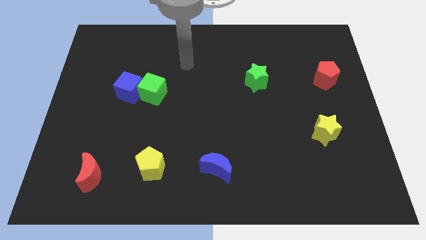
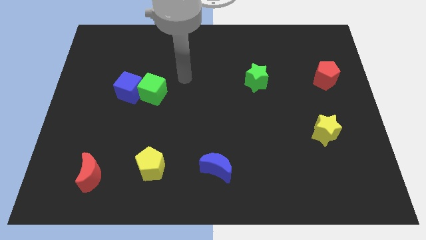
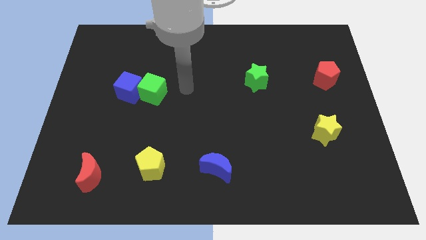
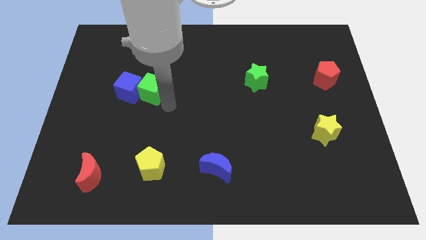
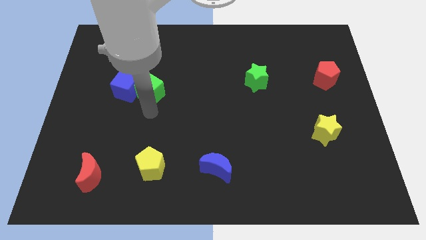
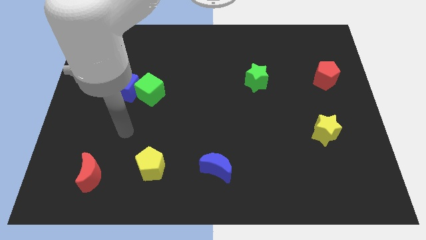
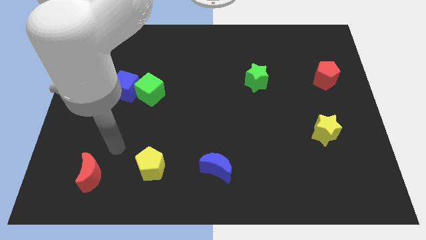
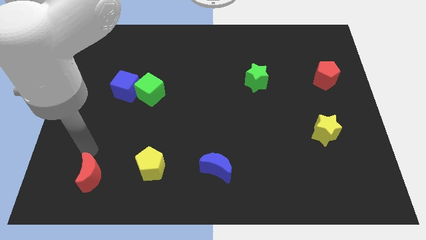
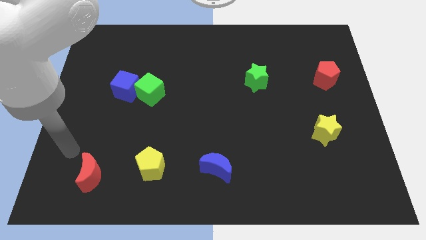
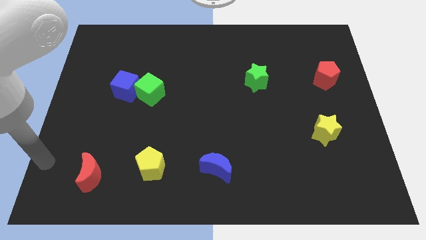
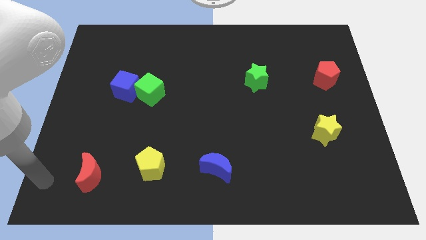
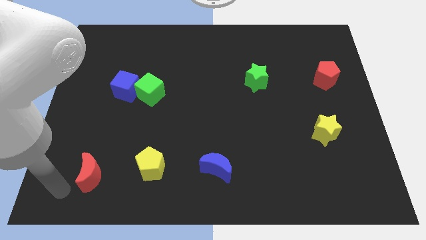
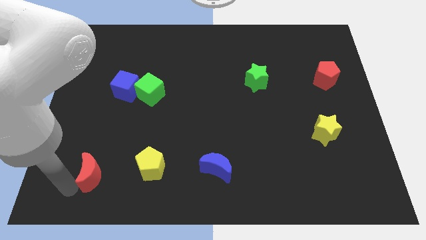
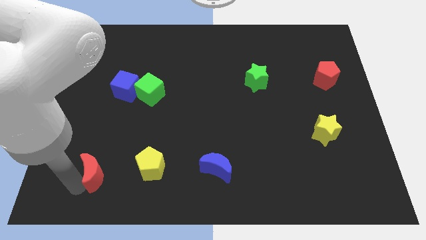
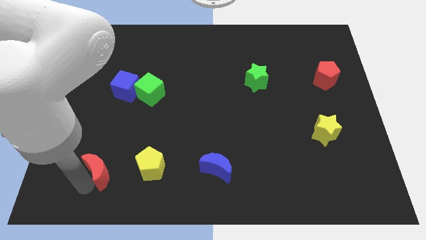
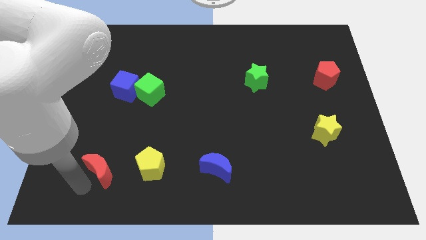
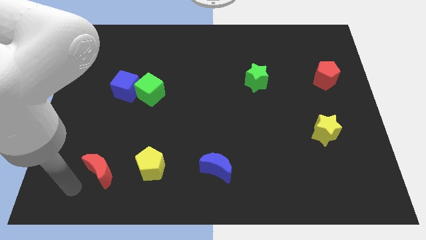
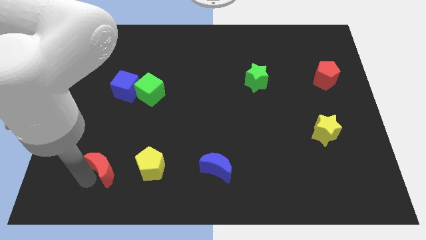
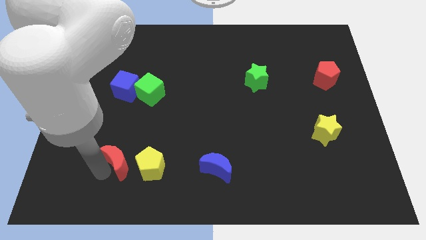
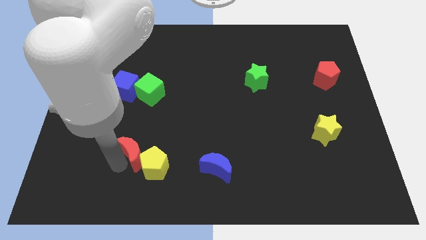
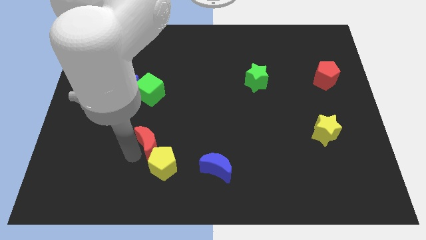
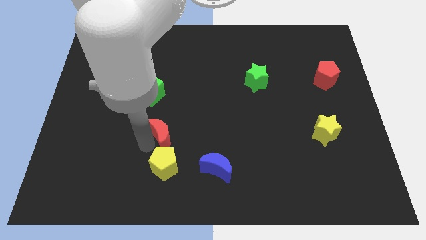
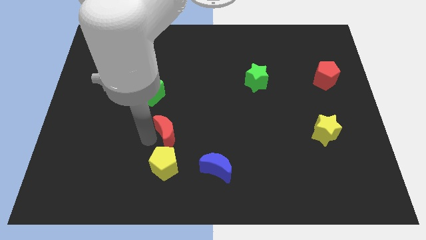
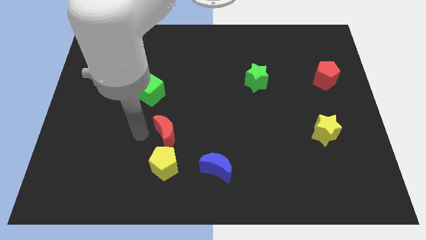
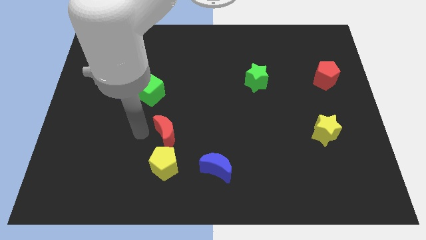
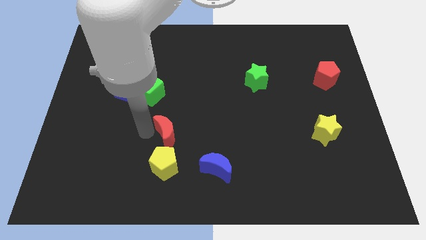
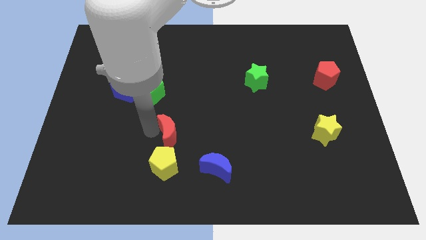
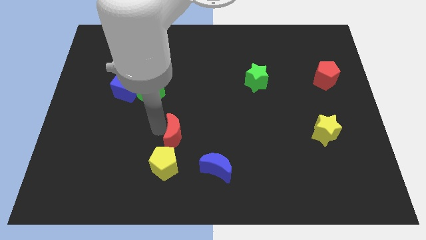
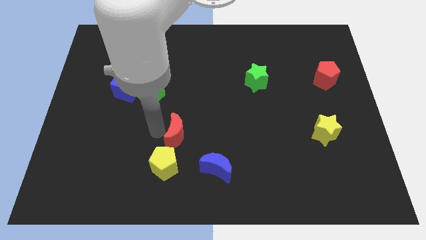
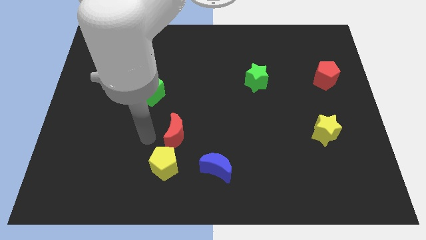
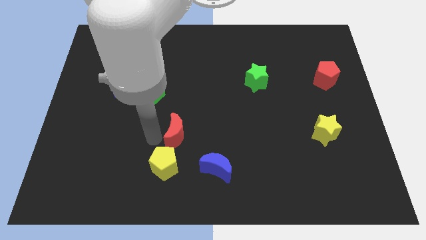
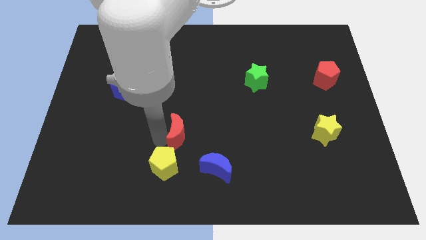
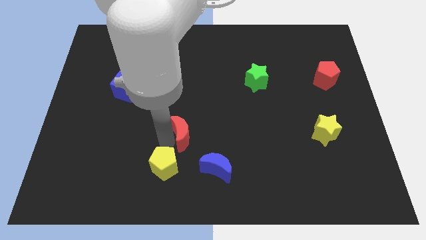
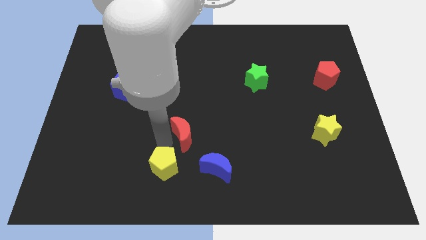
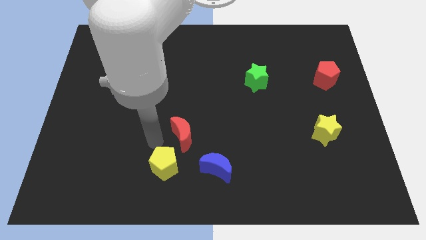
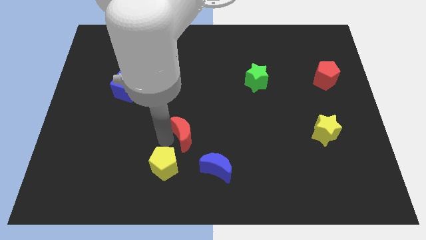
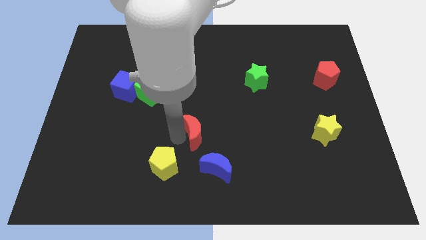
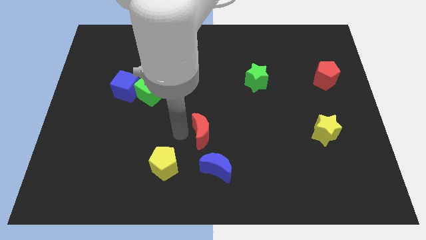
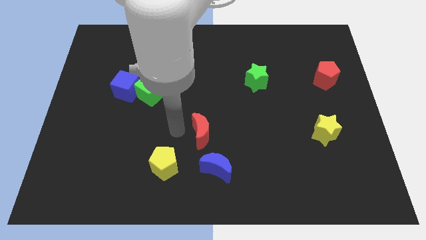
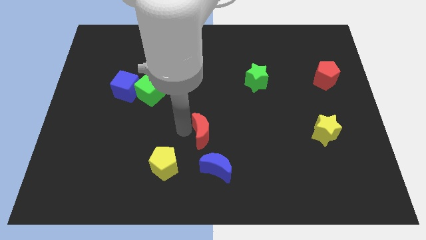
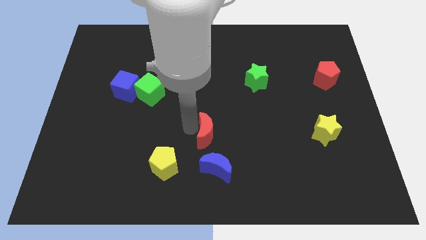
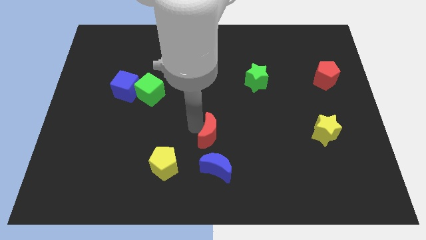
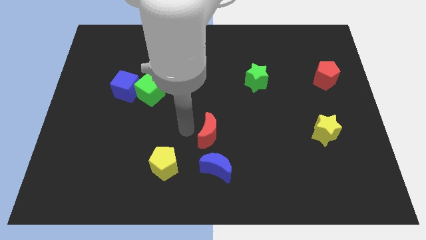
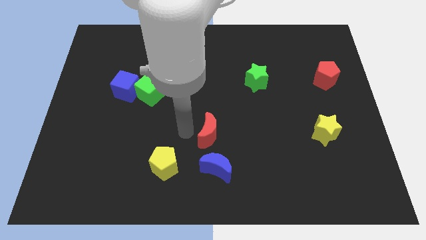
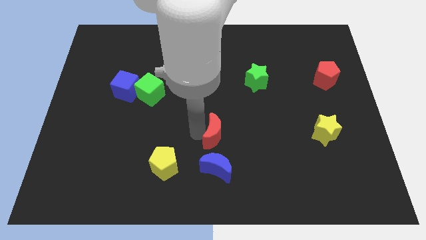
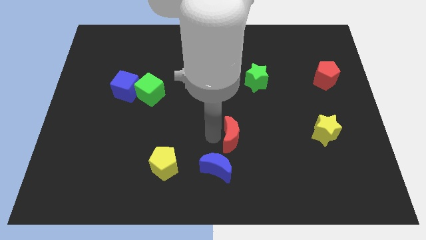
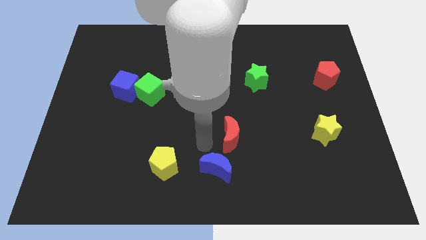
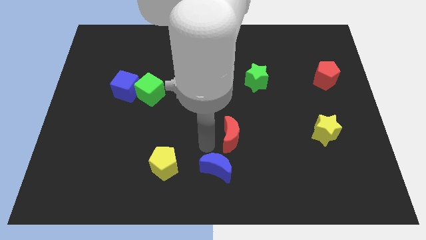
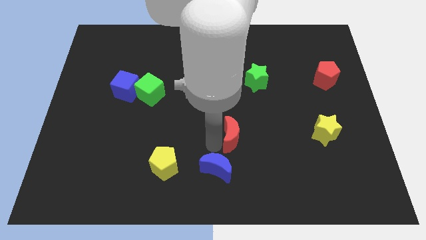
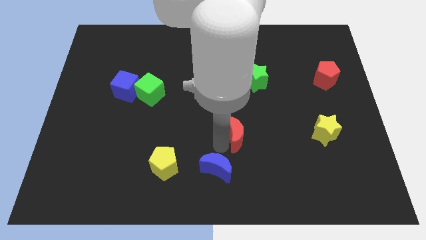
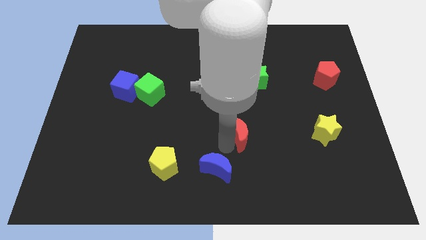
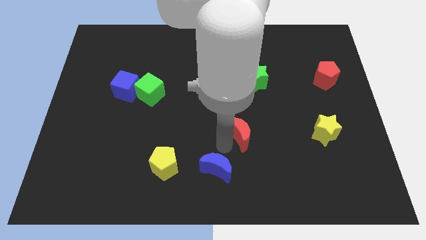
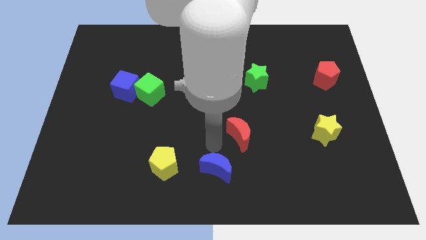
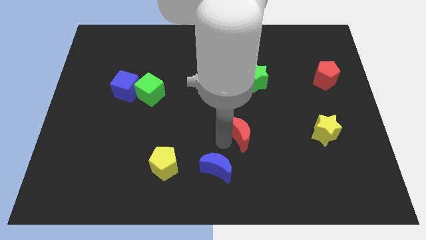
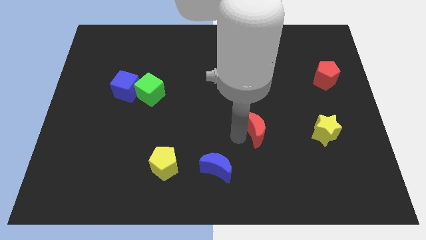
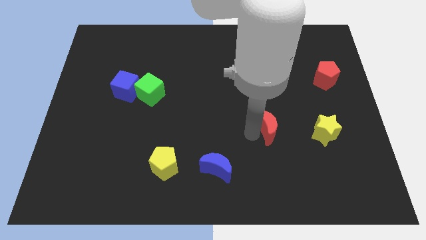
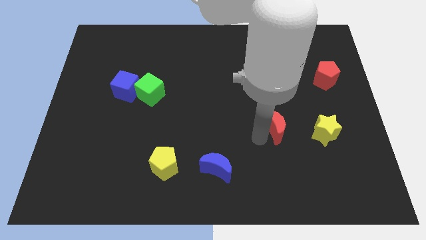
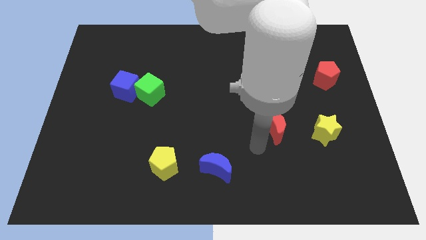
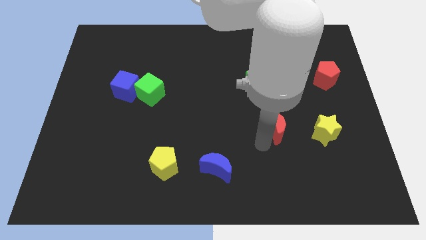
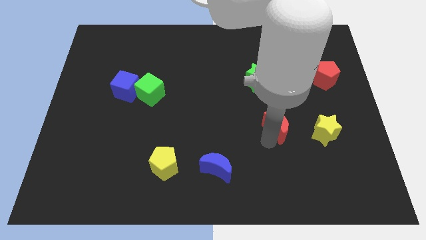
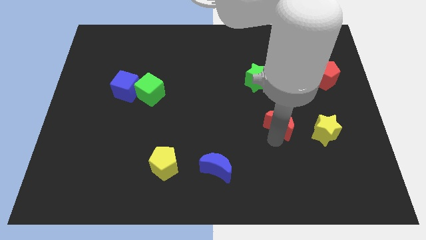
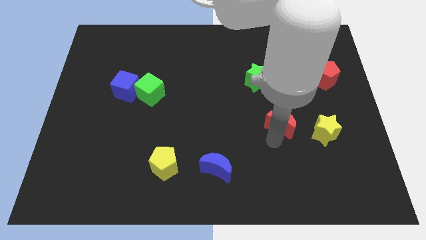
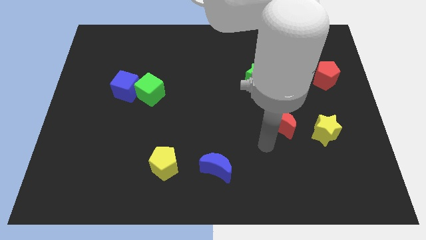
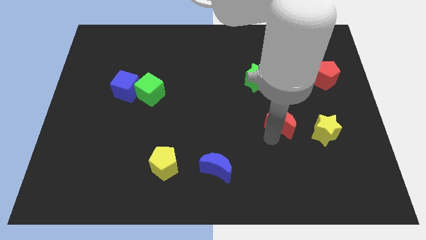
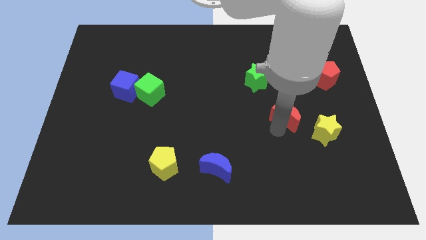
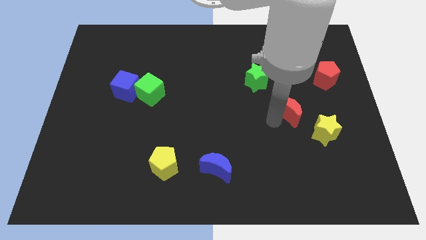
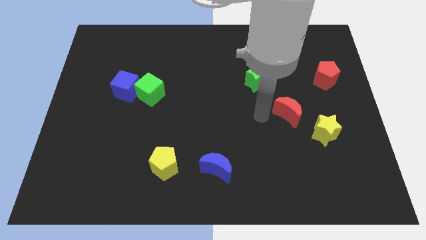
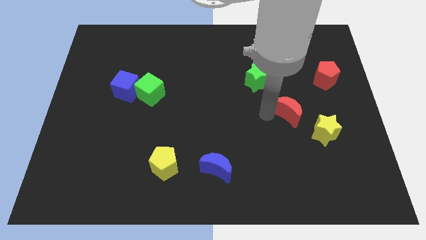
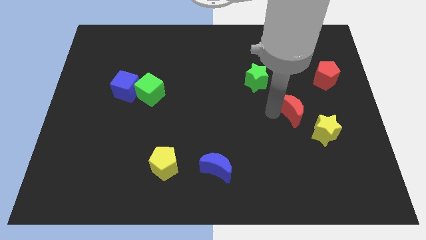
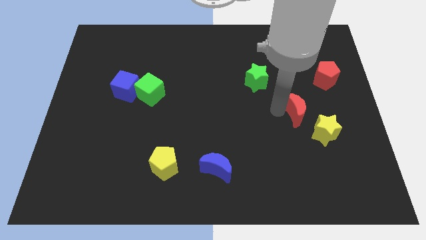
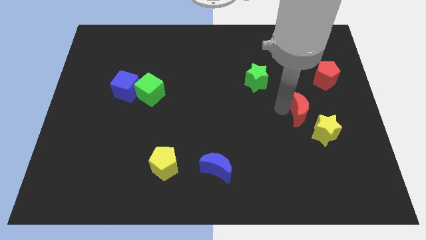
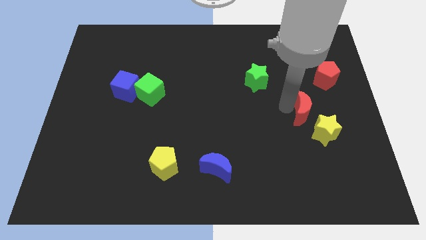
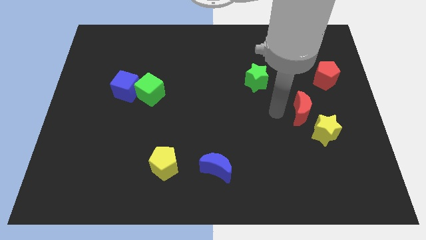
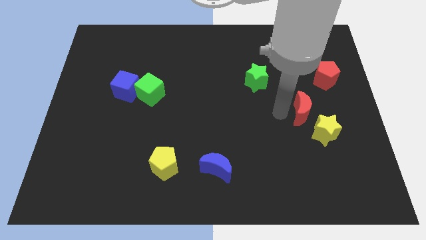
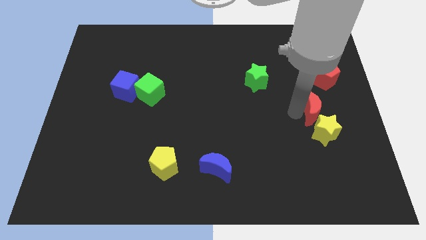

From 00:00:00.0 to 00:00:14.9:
put the red moon below the red pentagon

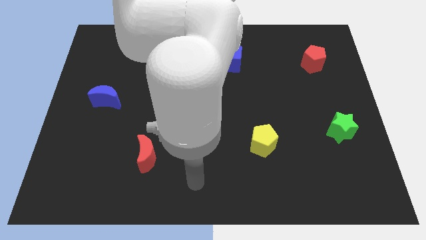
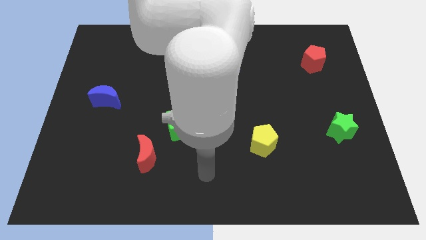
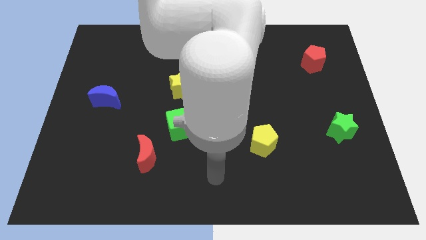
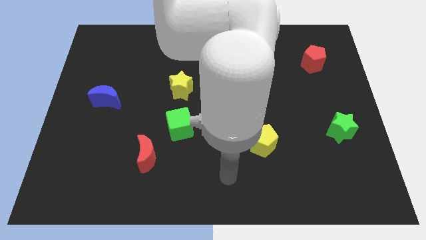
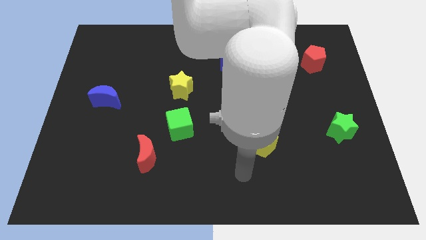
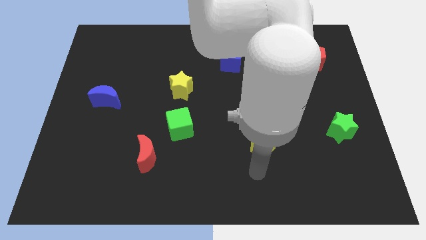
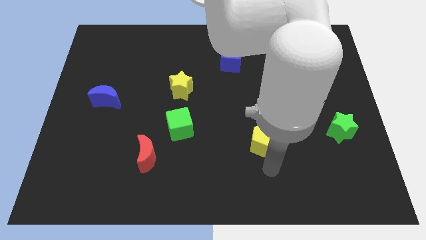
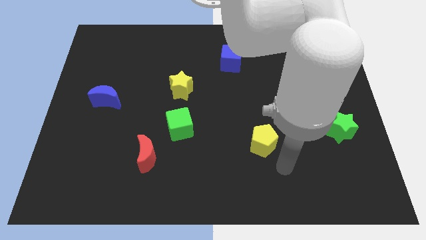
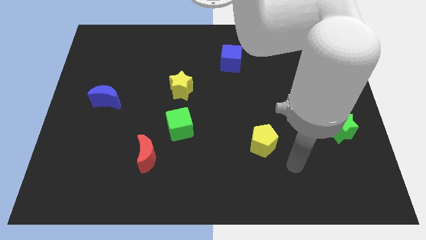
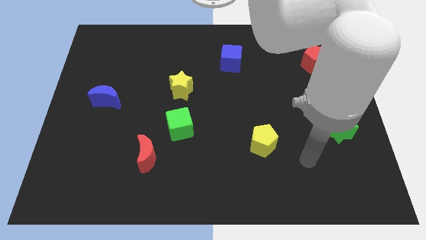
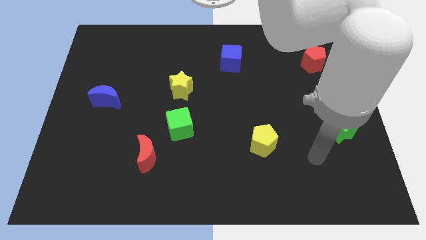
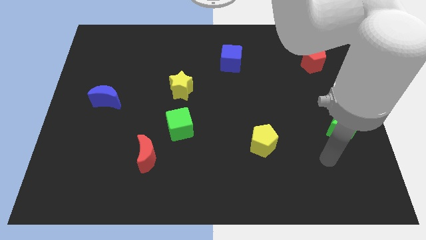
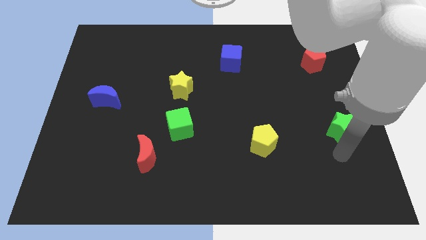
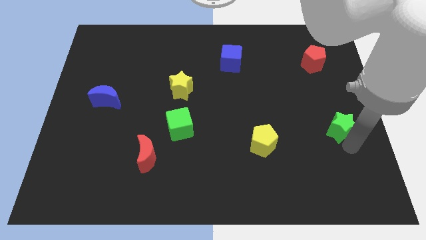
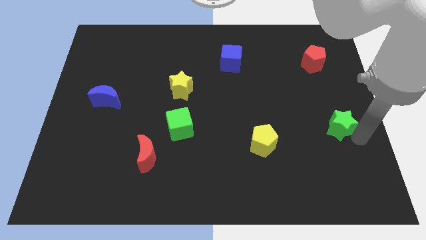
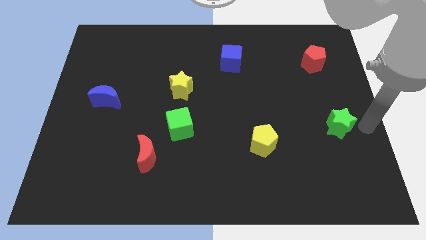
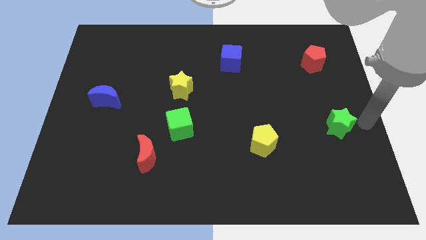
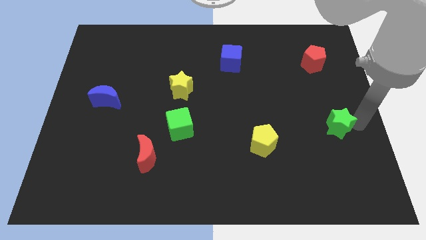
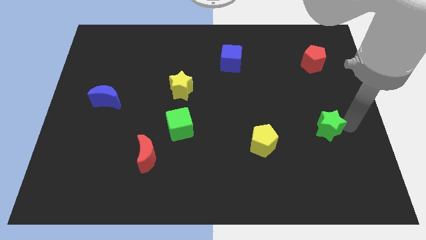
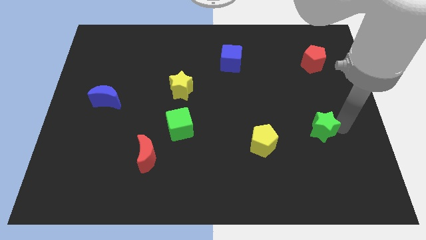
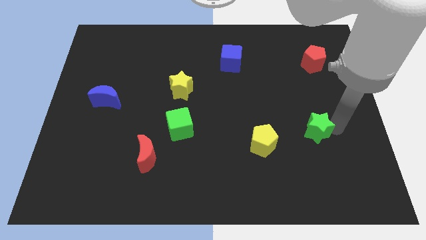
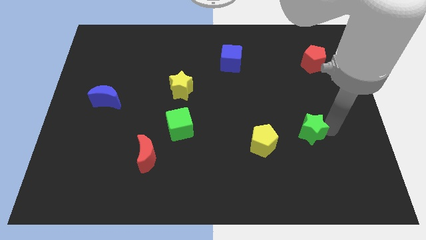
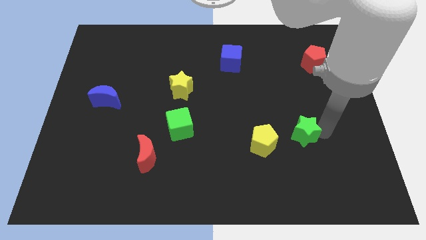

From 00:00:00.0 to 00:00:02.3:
slide the green star diagonally up and to the right of the yellow pentagon
